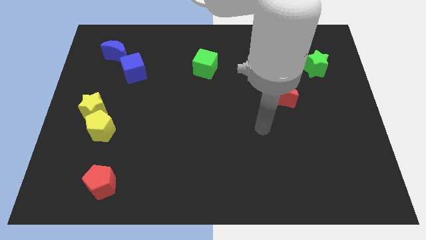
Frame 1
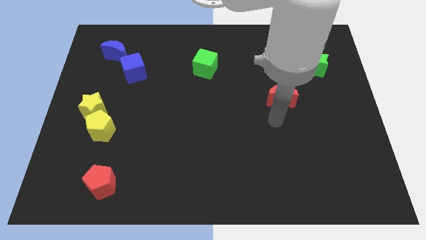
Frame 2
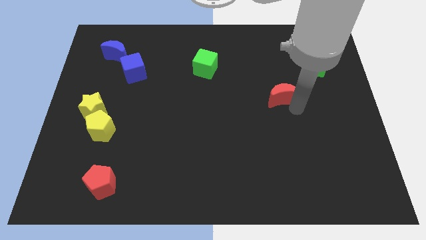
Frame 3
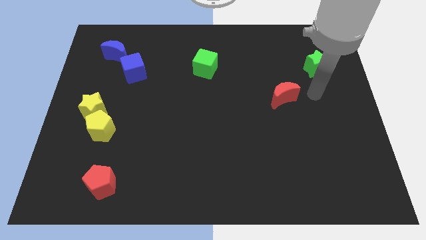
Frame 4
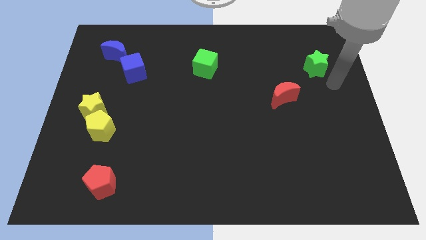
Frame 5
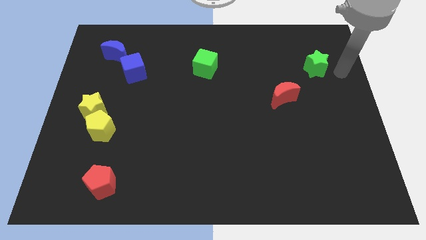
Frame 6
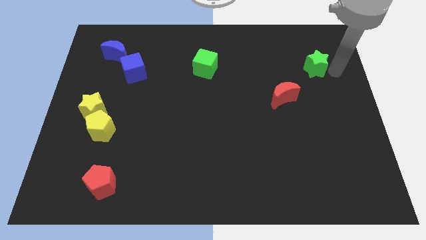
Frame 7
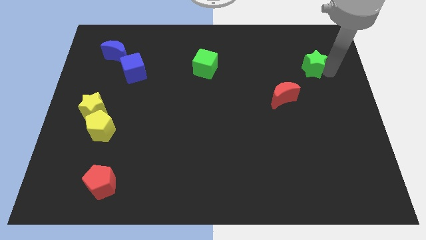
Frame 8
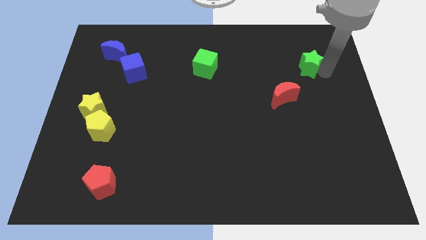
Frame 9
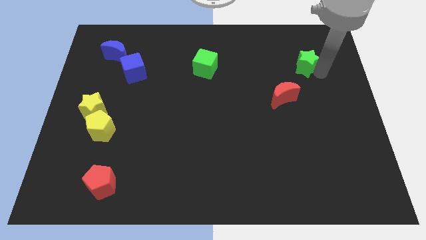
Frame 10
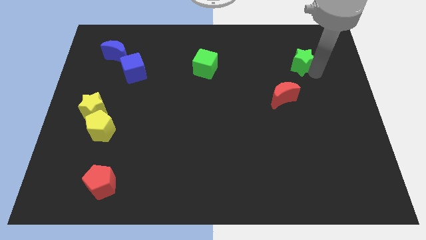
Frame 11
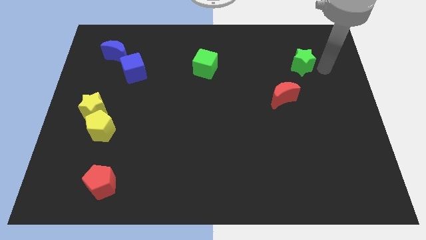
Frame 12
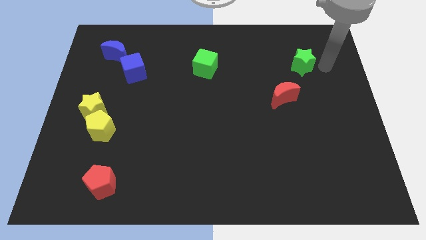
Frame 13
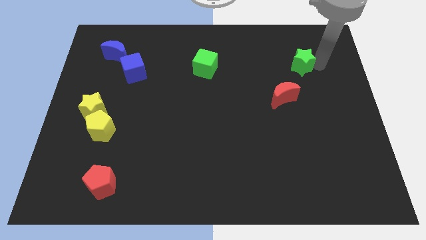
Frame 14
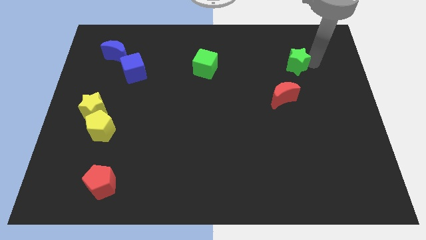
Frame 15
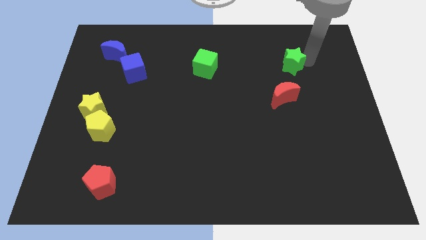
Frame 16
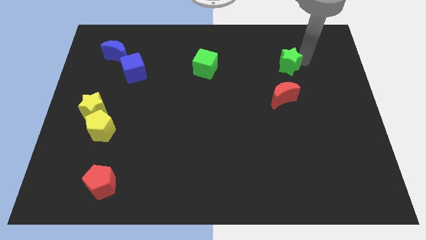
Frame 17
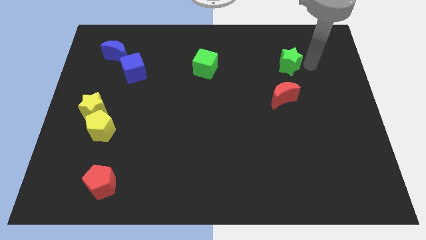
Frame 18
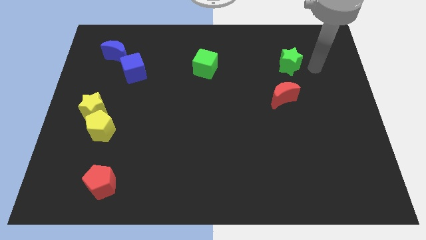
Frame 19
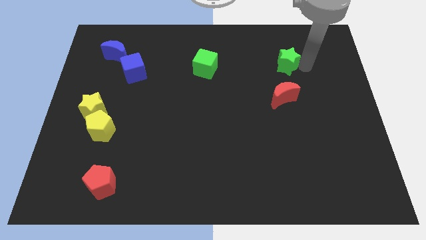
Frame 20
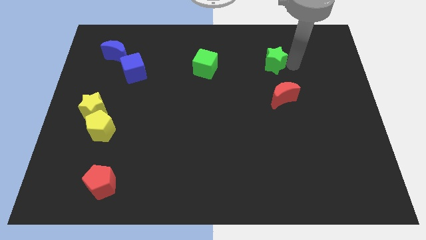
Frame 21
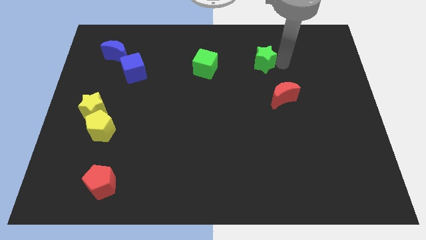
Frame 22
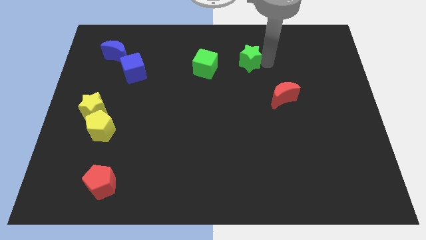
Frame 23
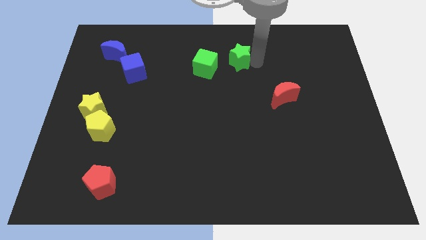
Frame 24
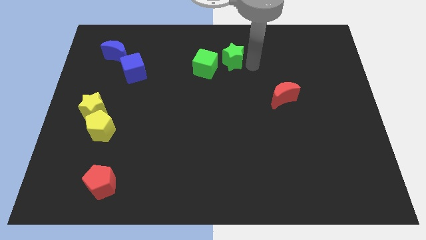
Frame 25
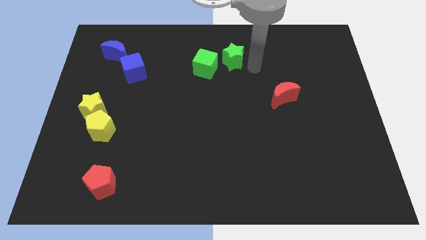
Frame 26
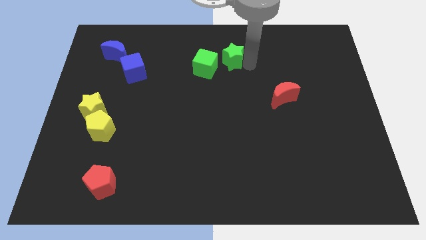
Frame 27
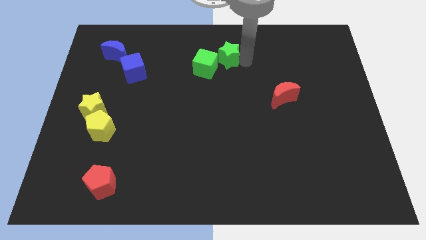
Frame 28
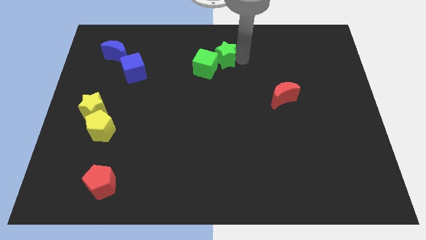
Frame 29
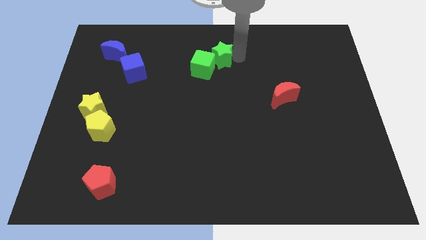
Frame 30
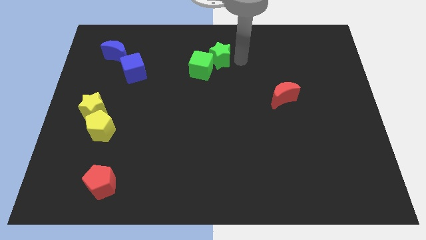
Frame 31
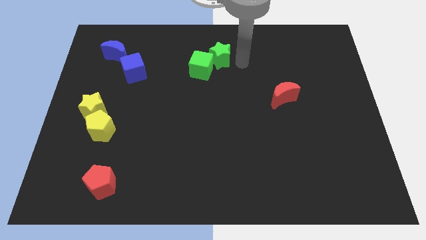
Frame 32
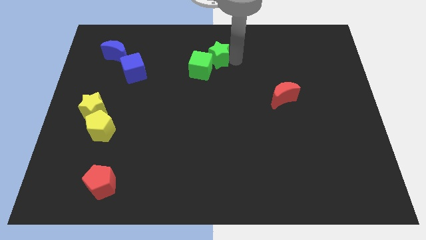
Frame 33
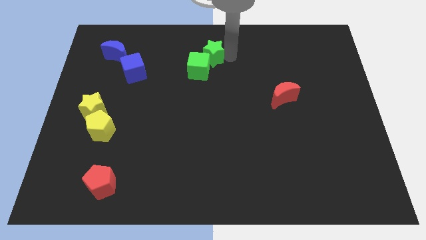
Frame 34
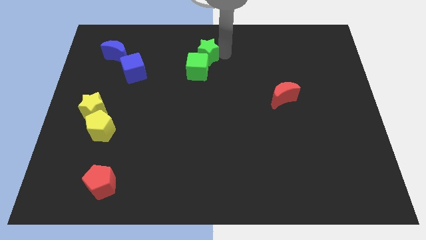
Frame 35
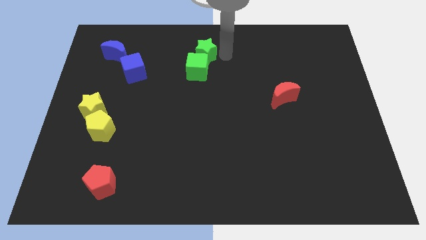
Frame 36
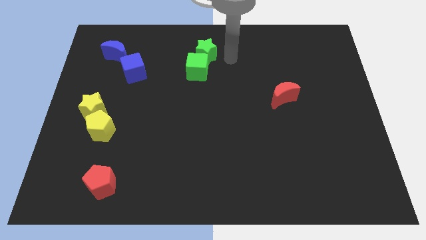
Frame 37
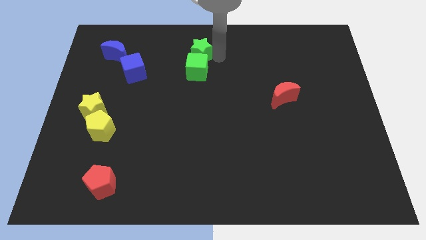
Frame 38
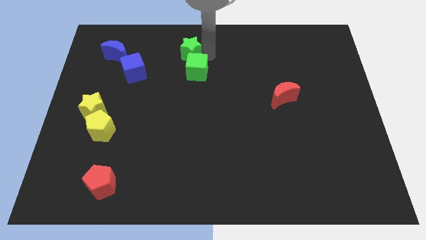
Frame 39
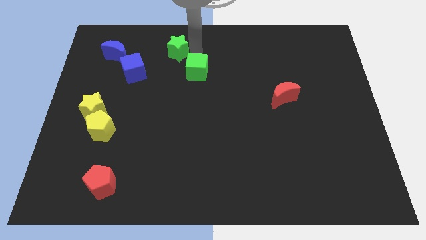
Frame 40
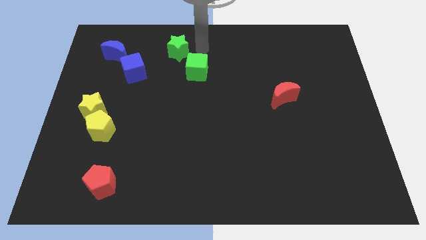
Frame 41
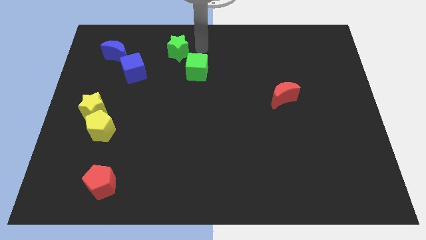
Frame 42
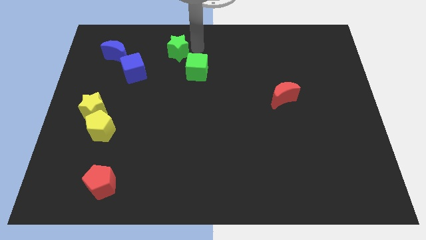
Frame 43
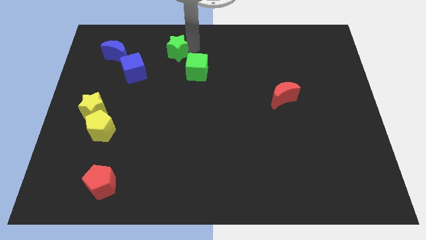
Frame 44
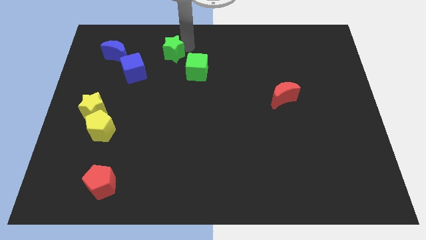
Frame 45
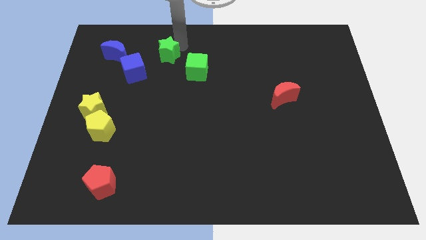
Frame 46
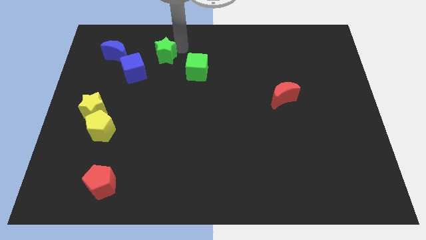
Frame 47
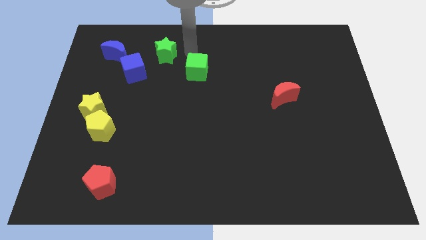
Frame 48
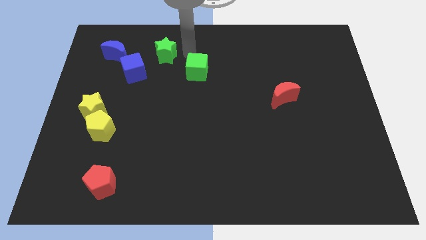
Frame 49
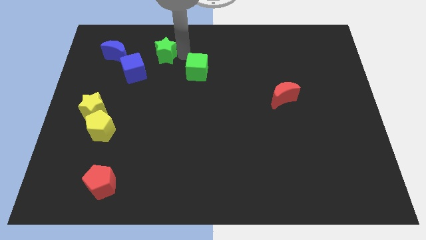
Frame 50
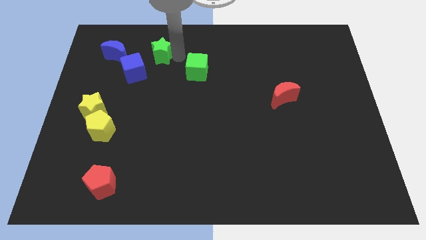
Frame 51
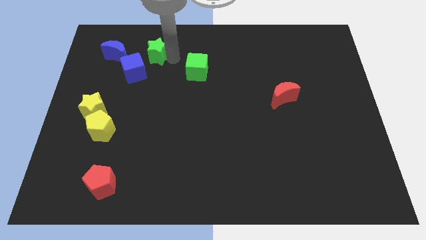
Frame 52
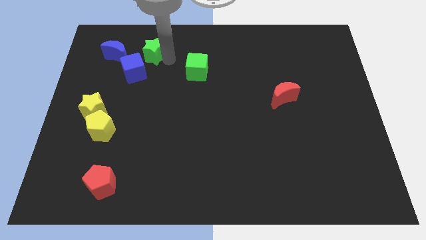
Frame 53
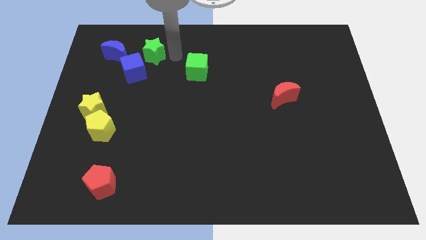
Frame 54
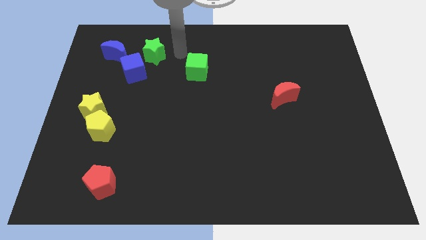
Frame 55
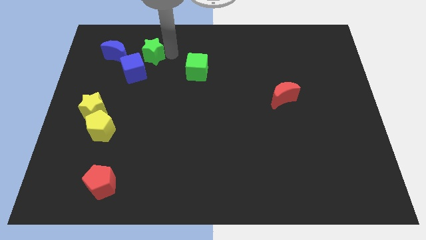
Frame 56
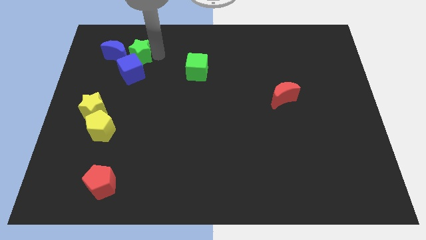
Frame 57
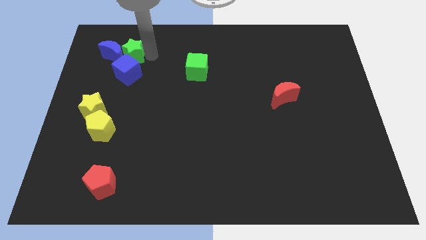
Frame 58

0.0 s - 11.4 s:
slide the green star towards the blue moon

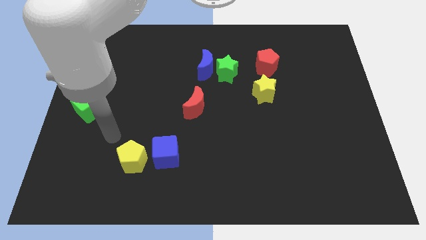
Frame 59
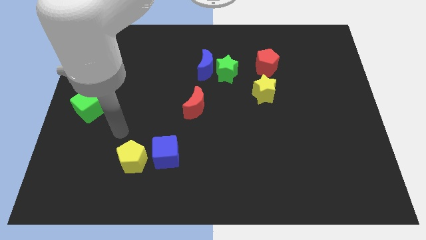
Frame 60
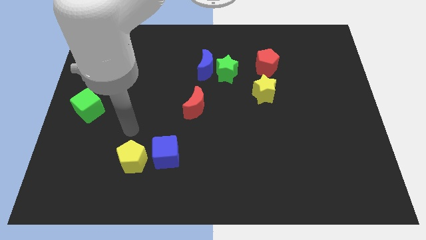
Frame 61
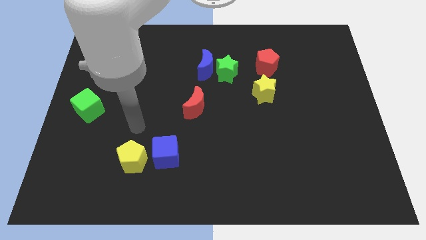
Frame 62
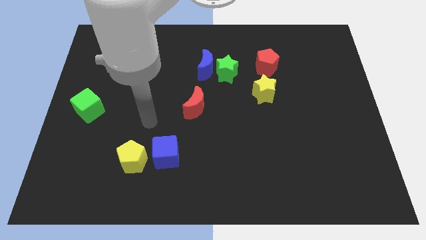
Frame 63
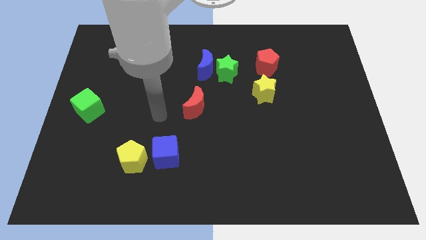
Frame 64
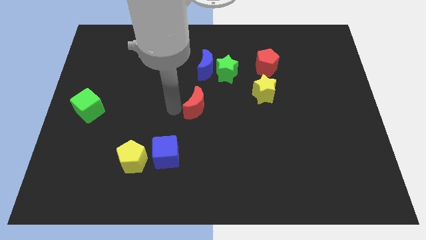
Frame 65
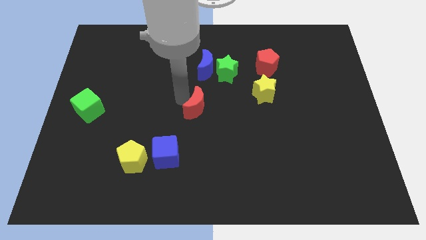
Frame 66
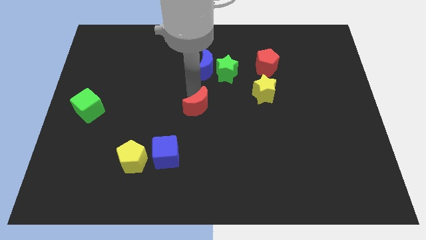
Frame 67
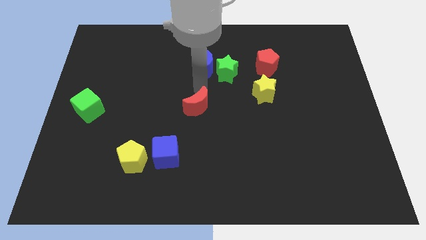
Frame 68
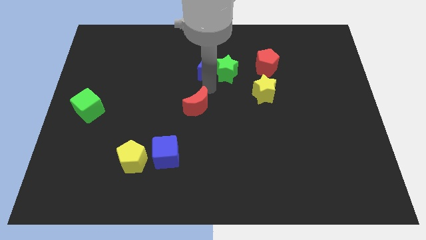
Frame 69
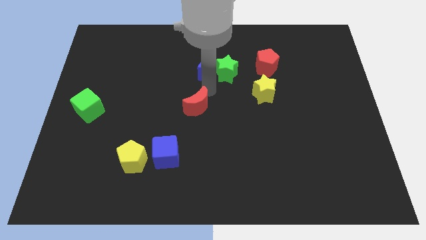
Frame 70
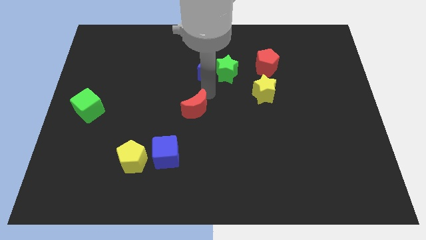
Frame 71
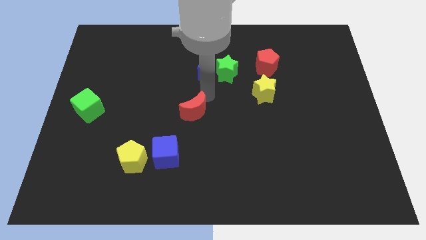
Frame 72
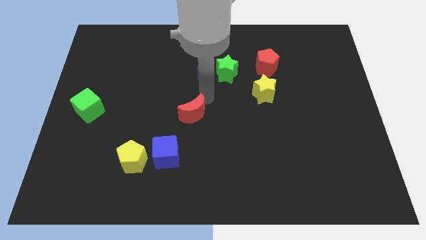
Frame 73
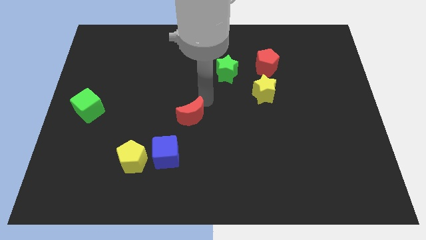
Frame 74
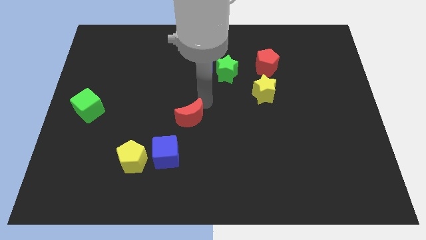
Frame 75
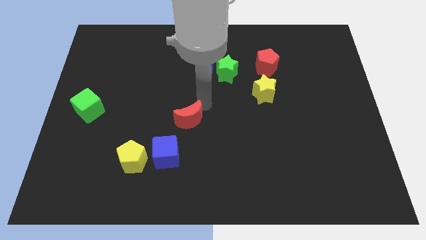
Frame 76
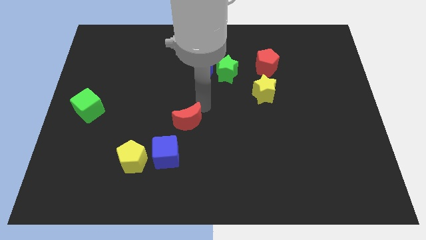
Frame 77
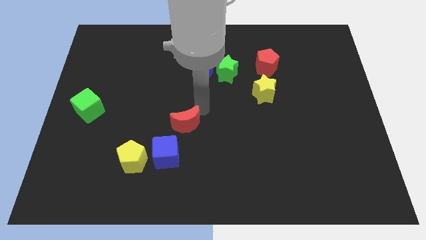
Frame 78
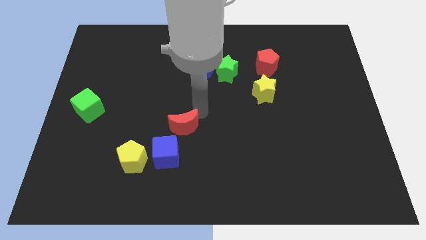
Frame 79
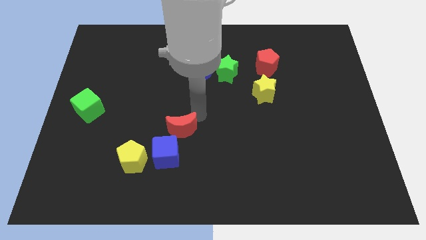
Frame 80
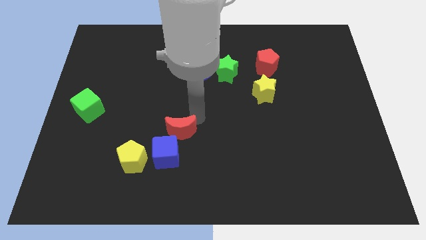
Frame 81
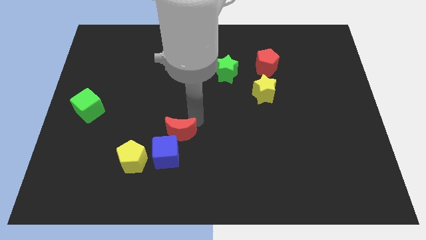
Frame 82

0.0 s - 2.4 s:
slide the red moon to the blue cube
